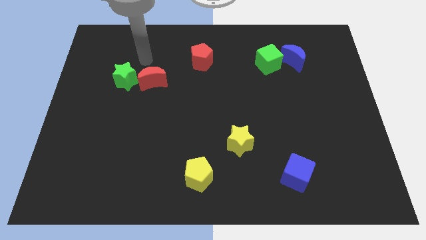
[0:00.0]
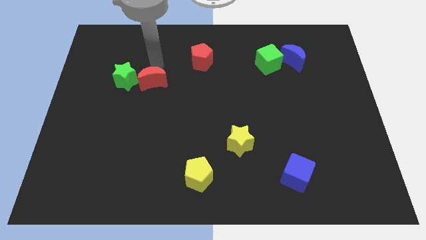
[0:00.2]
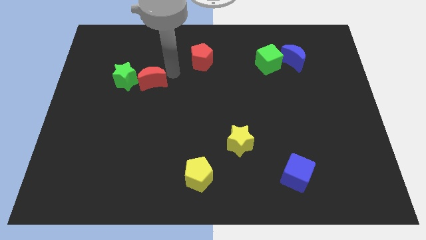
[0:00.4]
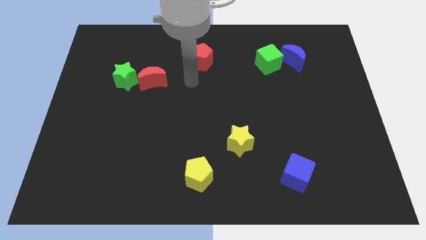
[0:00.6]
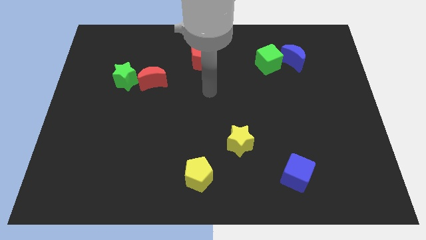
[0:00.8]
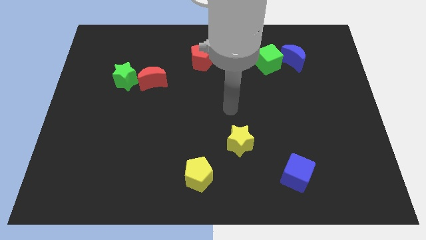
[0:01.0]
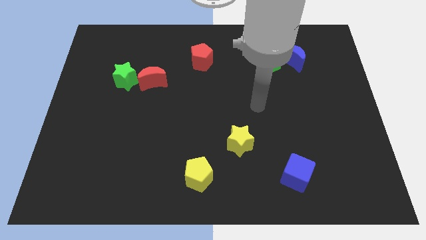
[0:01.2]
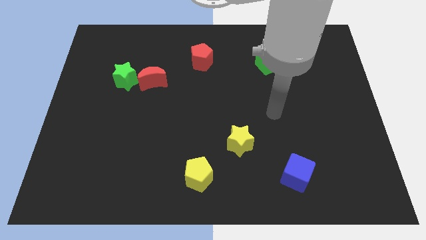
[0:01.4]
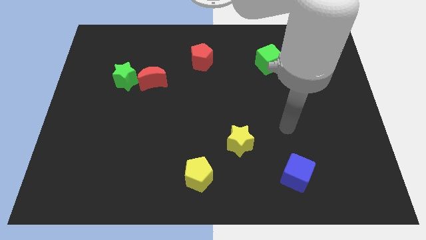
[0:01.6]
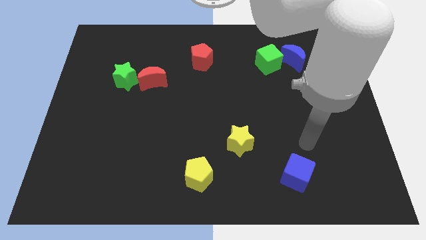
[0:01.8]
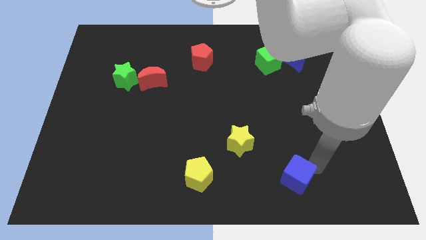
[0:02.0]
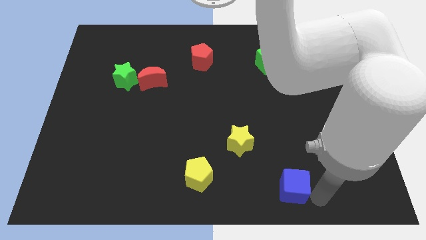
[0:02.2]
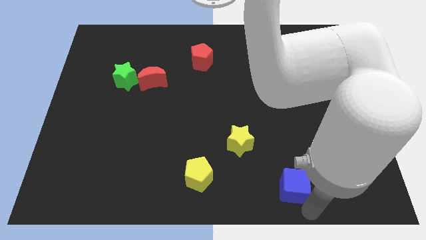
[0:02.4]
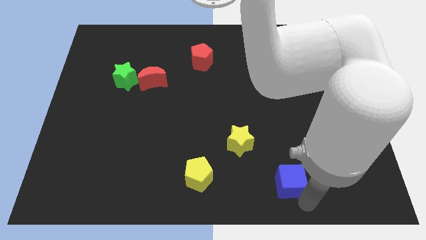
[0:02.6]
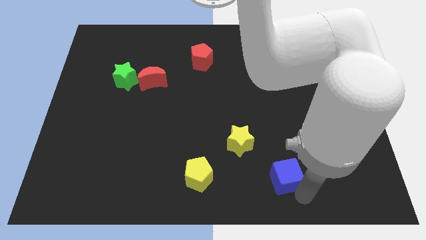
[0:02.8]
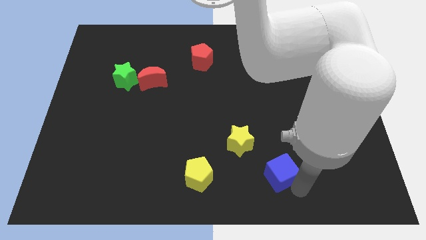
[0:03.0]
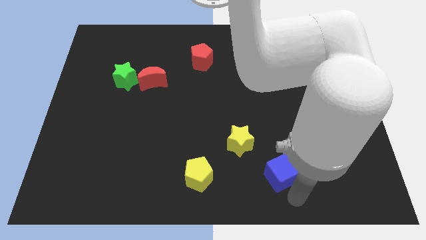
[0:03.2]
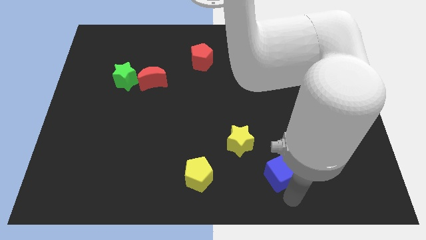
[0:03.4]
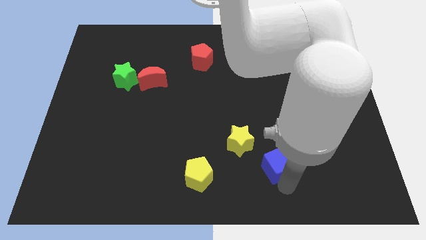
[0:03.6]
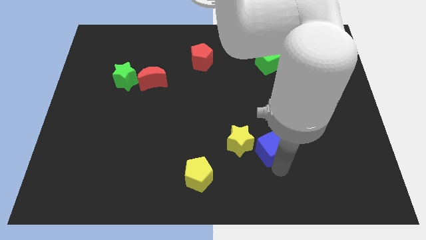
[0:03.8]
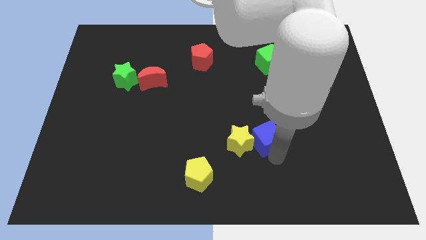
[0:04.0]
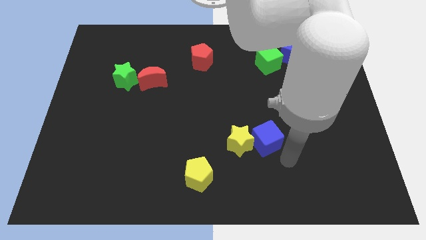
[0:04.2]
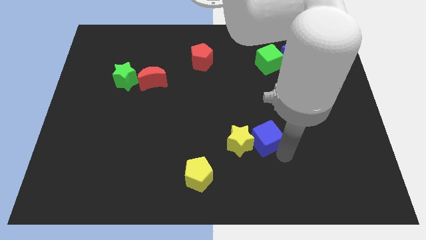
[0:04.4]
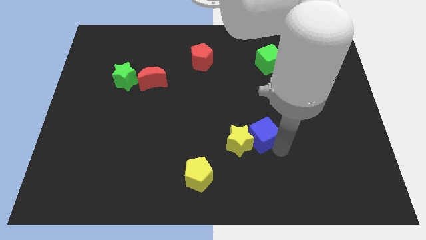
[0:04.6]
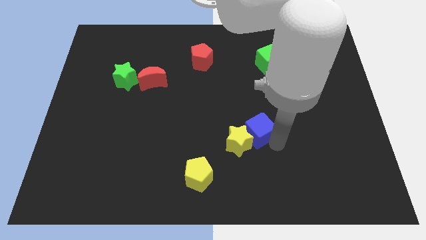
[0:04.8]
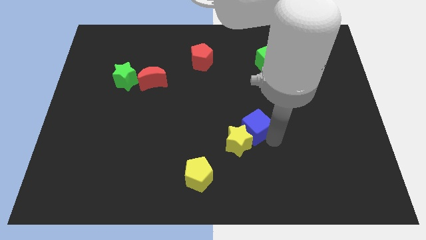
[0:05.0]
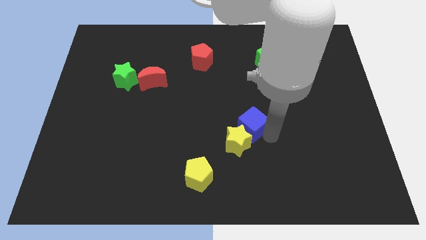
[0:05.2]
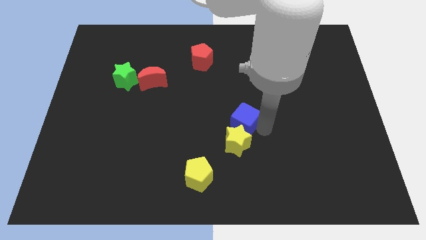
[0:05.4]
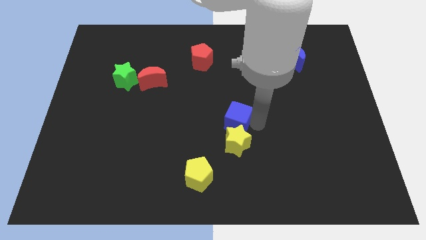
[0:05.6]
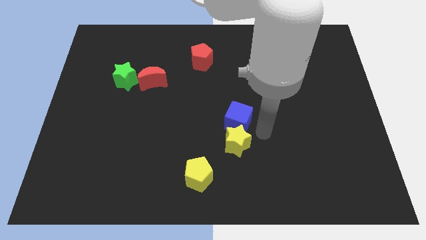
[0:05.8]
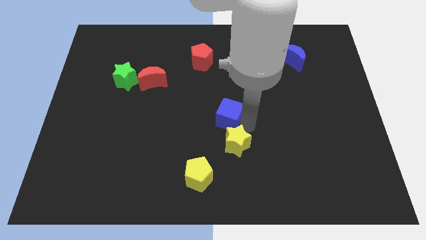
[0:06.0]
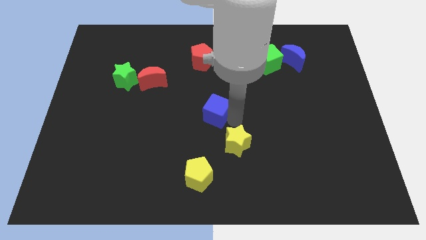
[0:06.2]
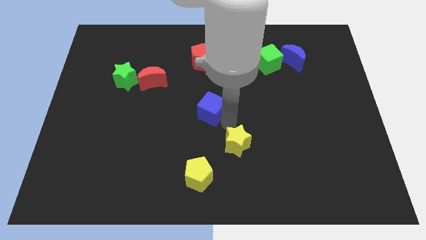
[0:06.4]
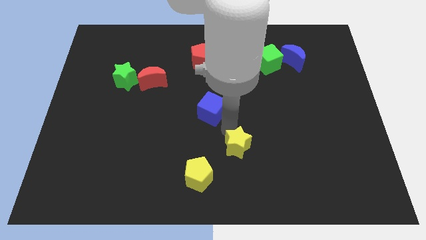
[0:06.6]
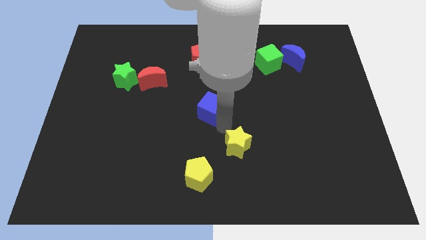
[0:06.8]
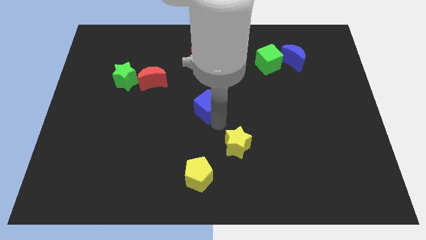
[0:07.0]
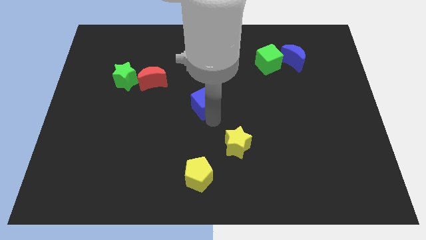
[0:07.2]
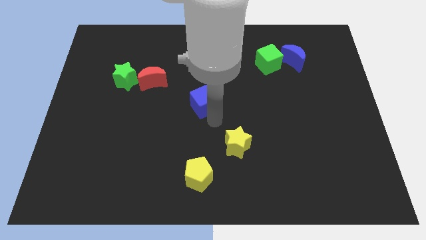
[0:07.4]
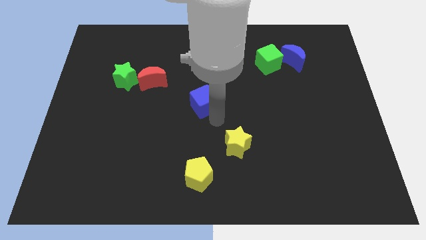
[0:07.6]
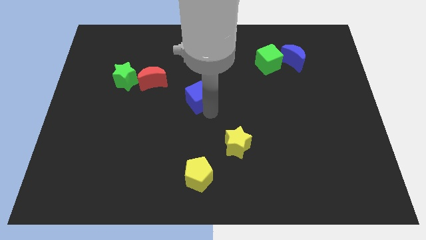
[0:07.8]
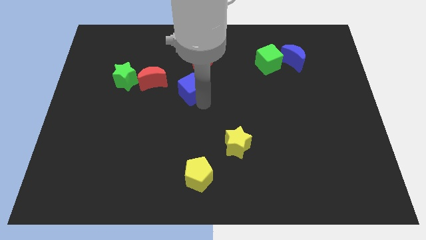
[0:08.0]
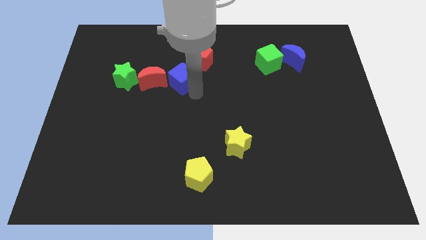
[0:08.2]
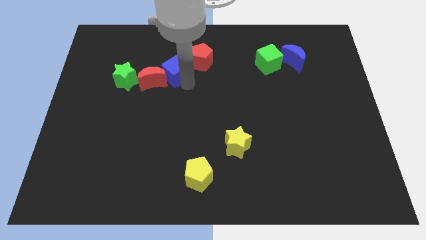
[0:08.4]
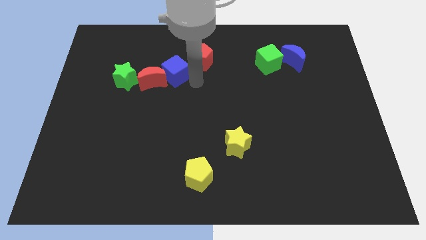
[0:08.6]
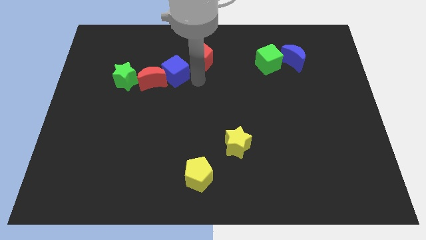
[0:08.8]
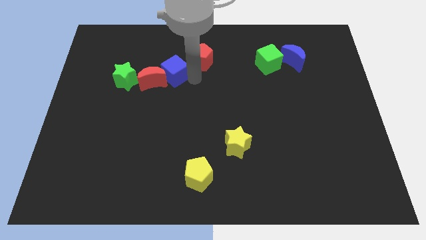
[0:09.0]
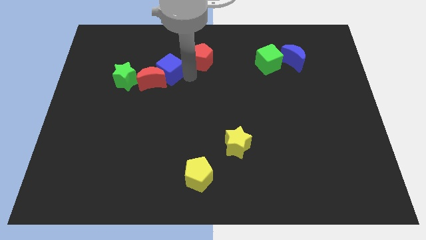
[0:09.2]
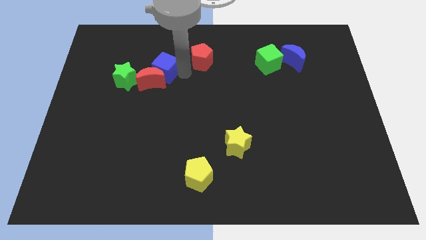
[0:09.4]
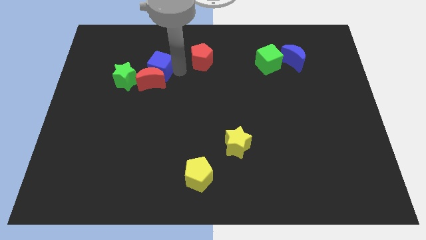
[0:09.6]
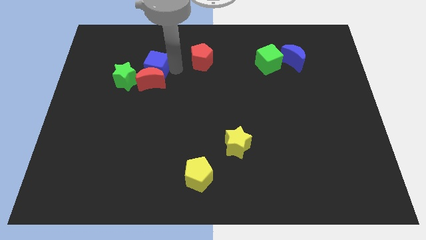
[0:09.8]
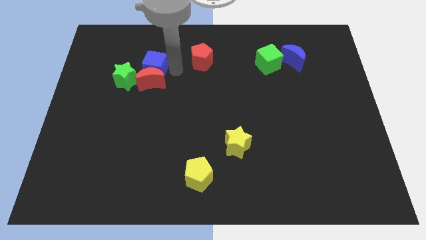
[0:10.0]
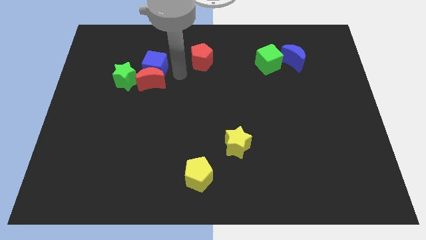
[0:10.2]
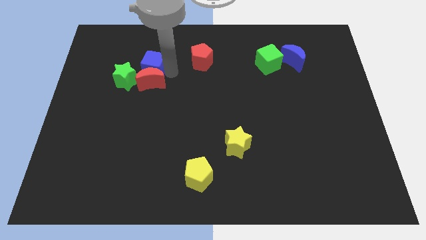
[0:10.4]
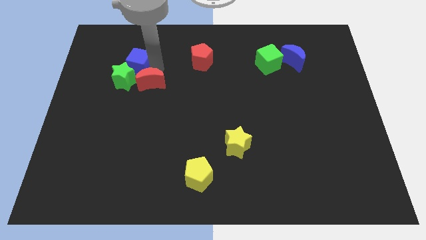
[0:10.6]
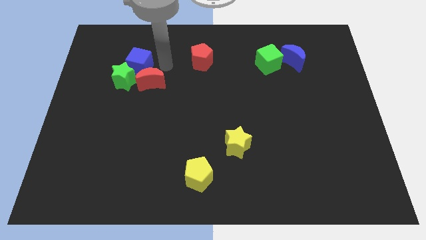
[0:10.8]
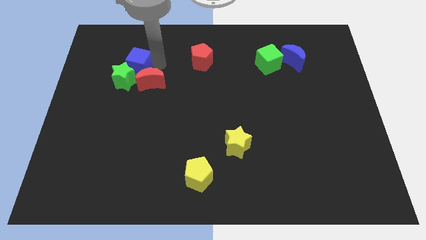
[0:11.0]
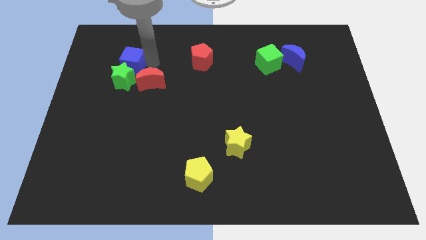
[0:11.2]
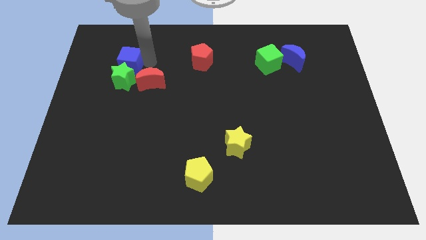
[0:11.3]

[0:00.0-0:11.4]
push the blue cube to the top left side of the green star

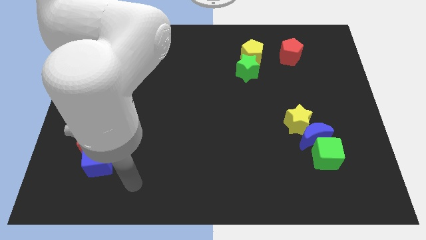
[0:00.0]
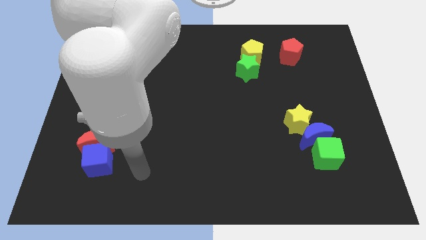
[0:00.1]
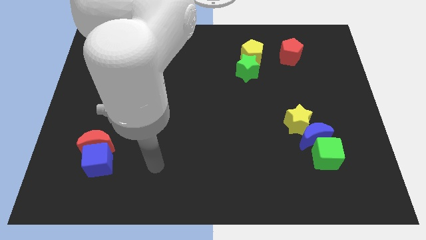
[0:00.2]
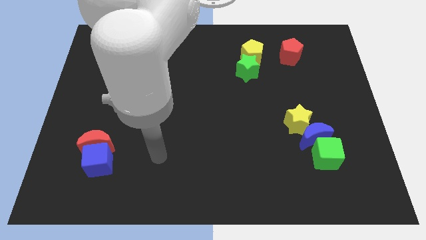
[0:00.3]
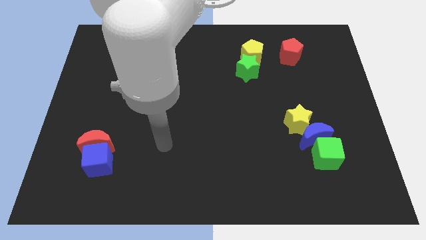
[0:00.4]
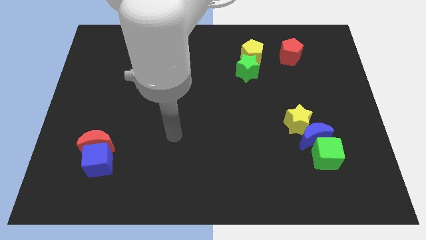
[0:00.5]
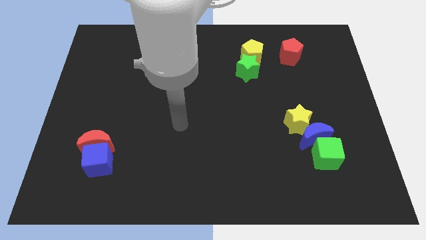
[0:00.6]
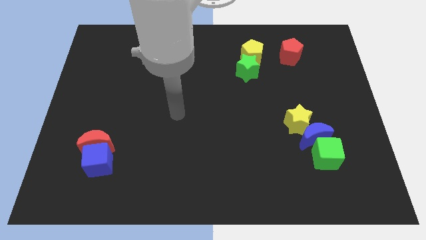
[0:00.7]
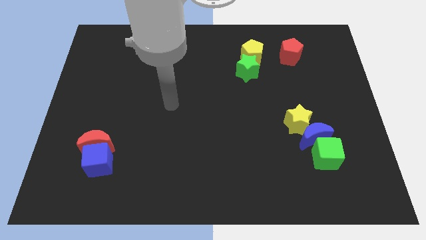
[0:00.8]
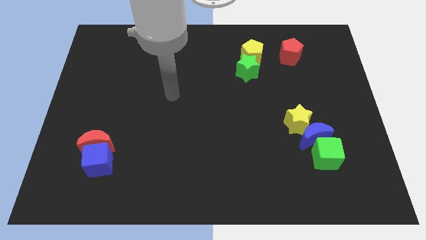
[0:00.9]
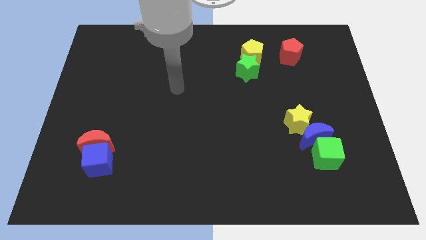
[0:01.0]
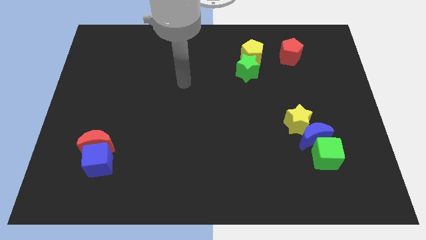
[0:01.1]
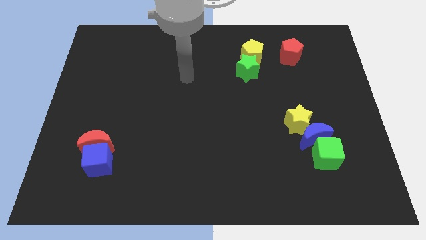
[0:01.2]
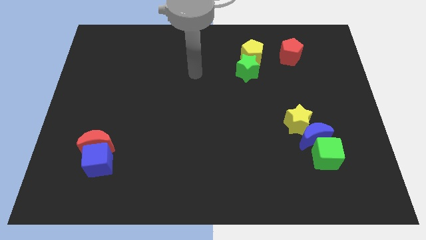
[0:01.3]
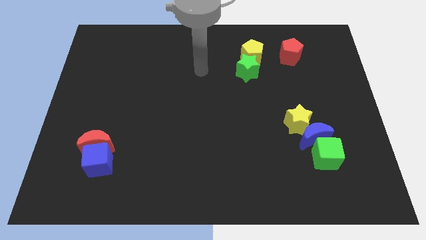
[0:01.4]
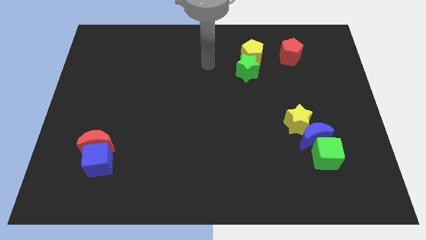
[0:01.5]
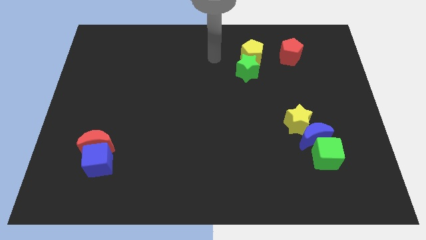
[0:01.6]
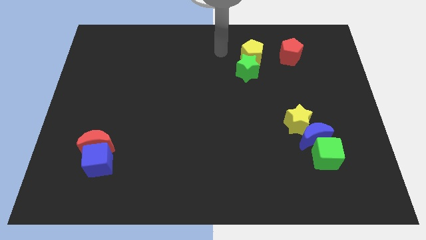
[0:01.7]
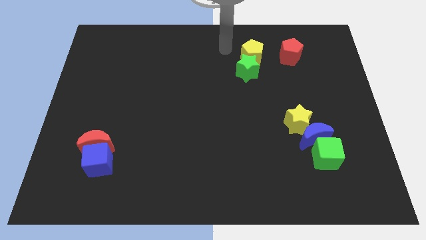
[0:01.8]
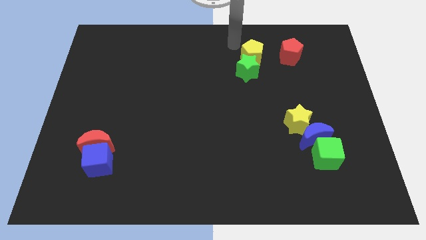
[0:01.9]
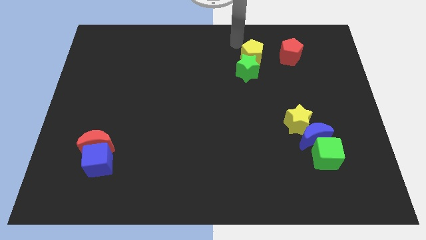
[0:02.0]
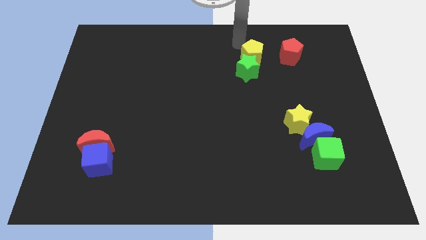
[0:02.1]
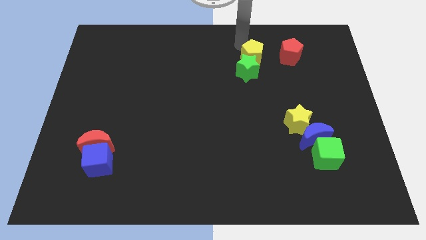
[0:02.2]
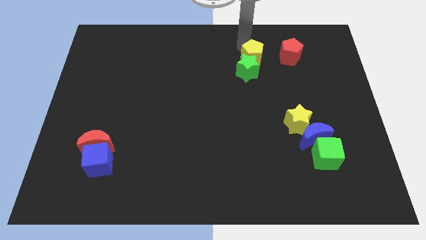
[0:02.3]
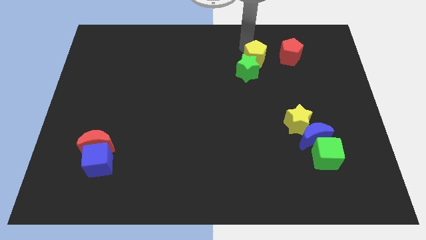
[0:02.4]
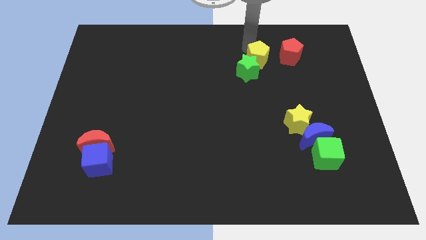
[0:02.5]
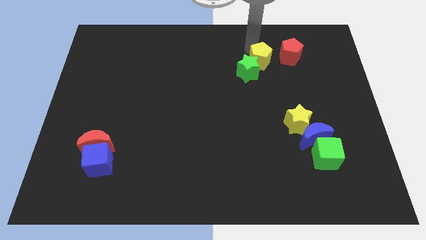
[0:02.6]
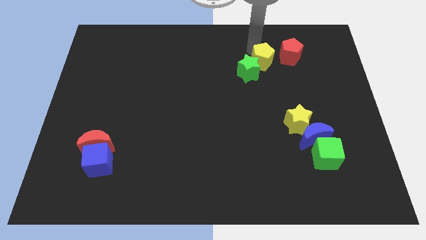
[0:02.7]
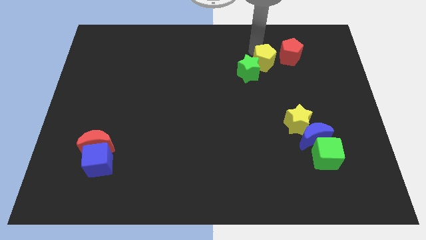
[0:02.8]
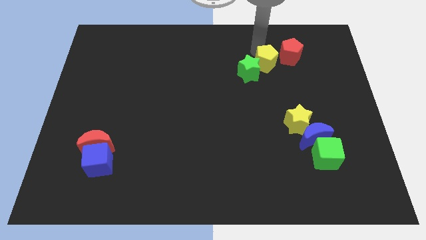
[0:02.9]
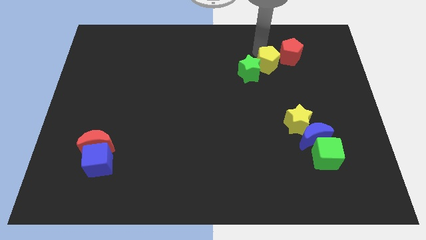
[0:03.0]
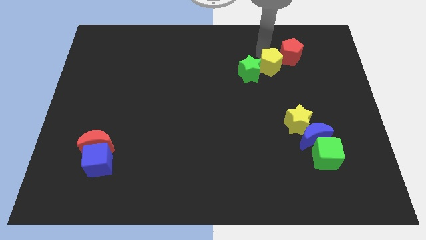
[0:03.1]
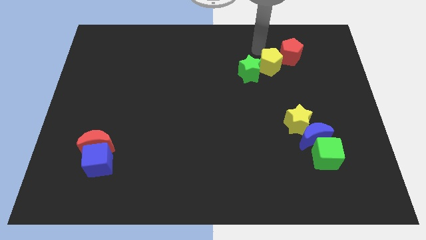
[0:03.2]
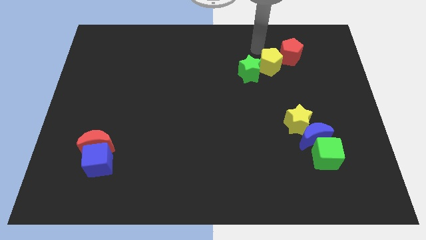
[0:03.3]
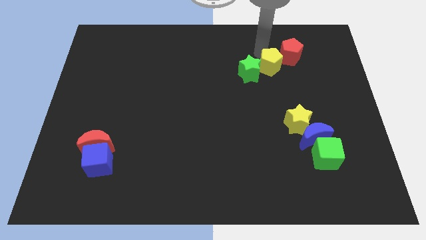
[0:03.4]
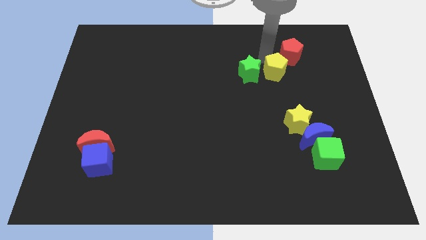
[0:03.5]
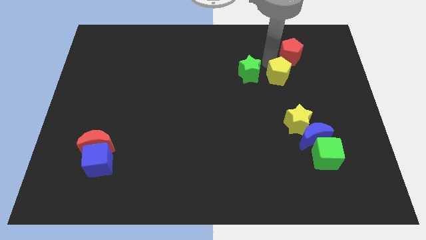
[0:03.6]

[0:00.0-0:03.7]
put the yellow pentagon above the yellow star
